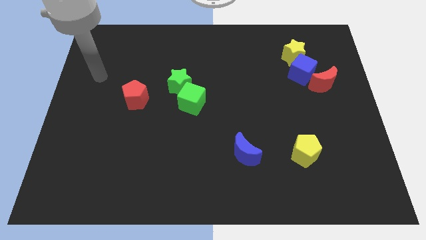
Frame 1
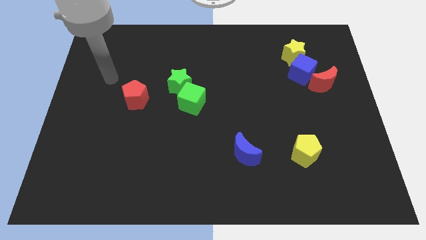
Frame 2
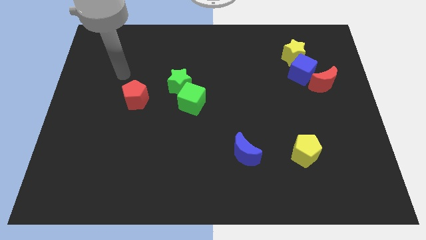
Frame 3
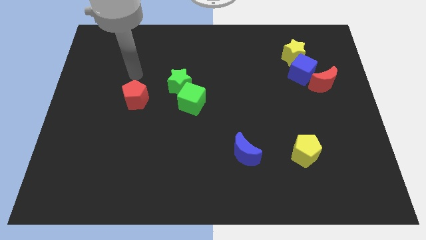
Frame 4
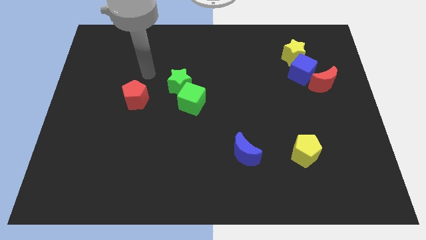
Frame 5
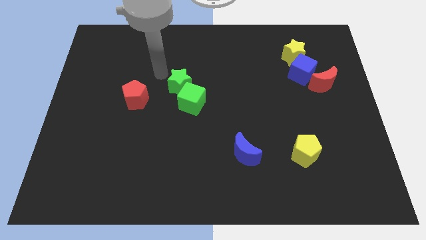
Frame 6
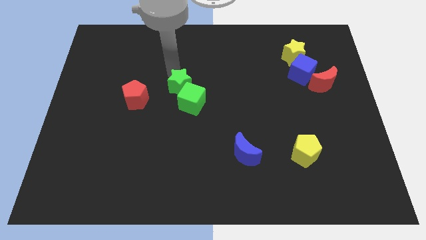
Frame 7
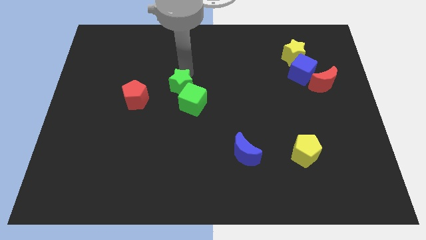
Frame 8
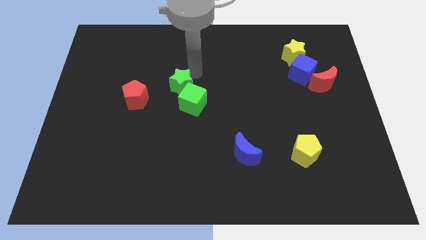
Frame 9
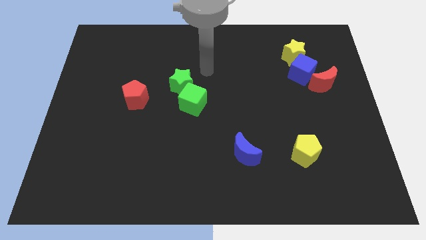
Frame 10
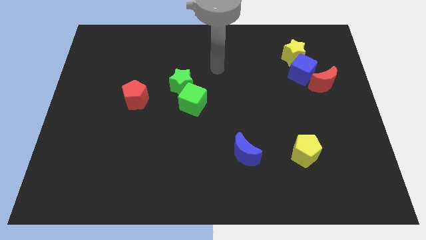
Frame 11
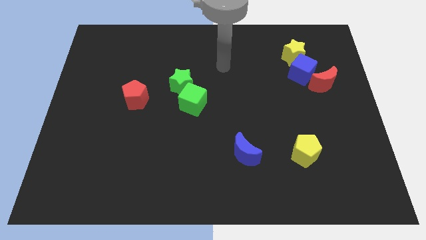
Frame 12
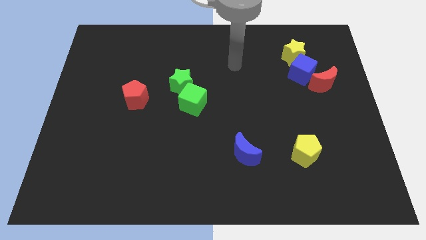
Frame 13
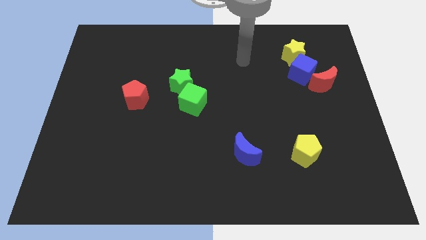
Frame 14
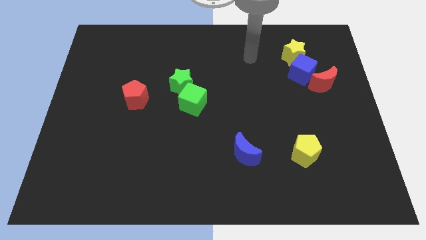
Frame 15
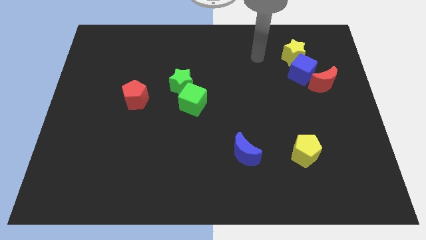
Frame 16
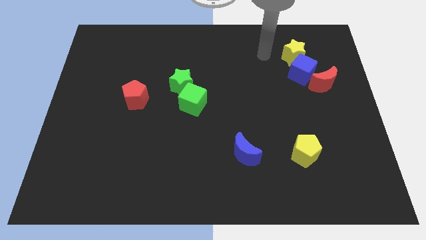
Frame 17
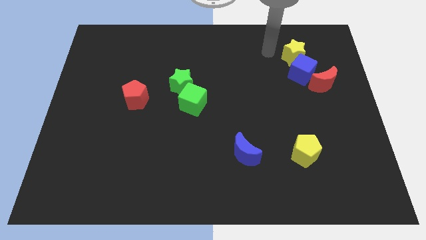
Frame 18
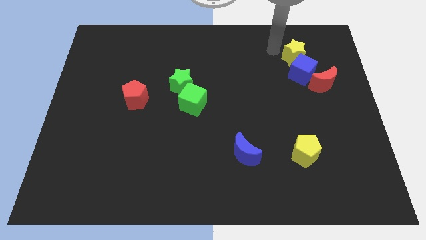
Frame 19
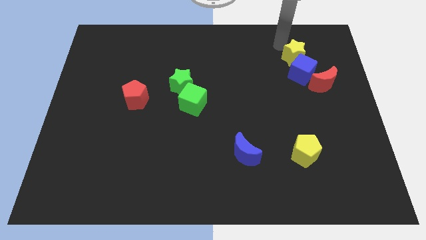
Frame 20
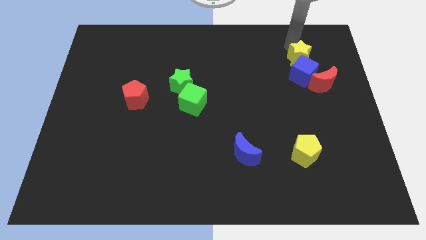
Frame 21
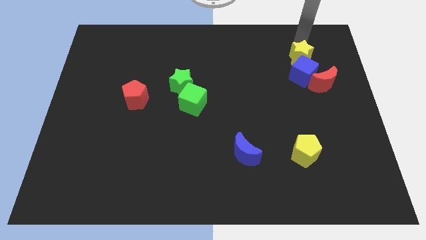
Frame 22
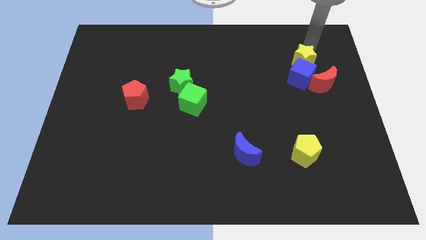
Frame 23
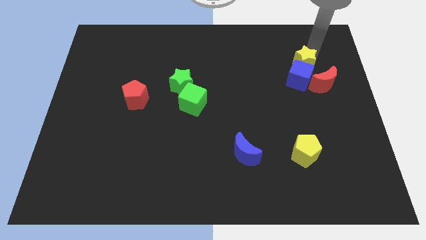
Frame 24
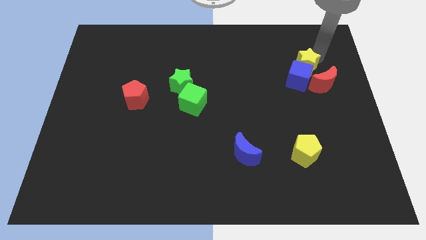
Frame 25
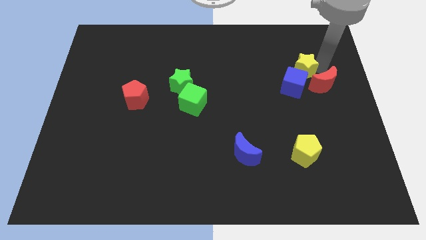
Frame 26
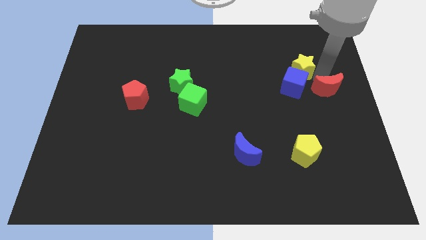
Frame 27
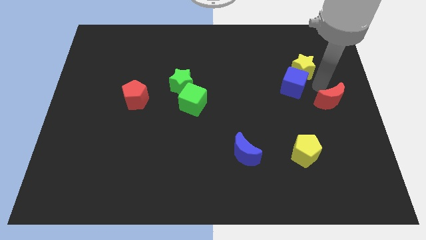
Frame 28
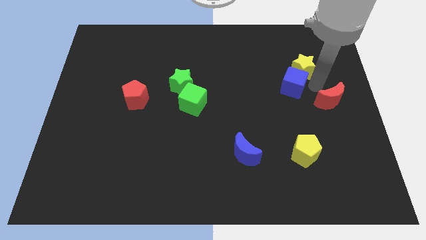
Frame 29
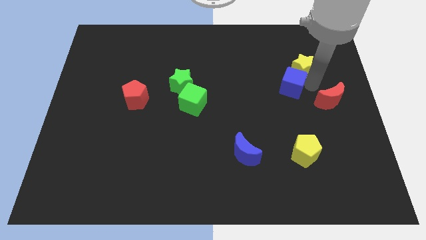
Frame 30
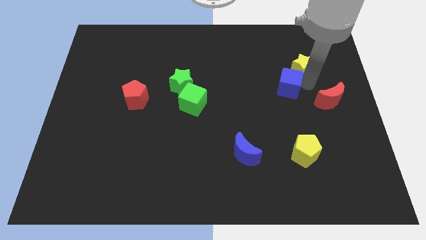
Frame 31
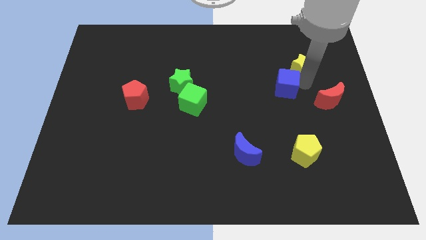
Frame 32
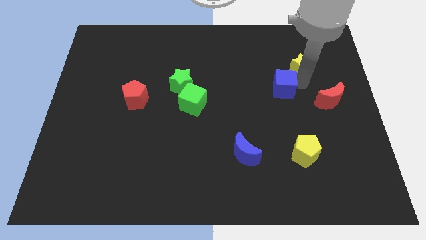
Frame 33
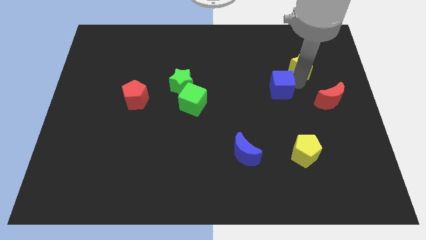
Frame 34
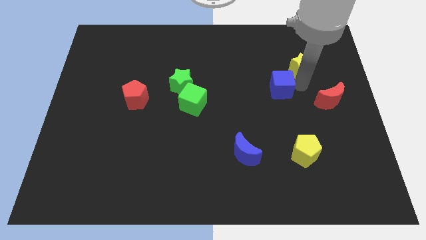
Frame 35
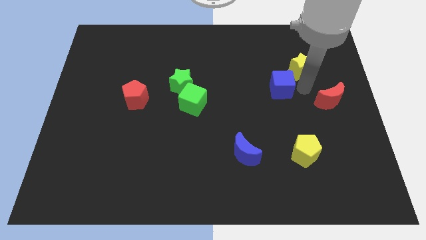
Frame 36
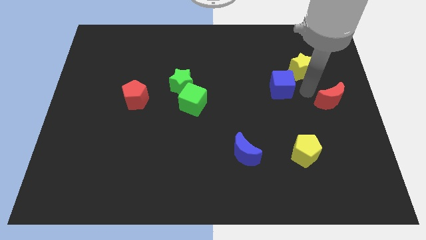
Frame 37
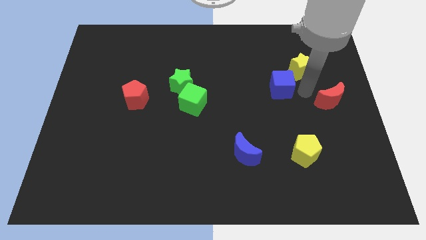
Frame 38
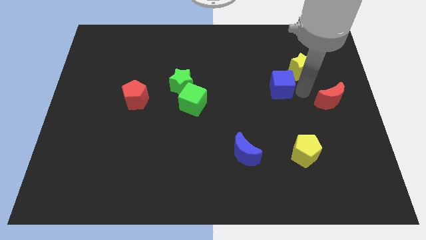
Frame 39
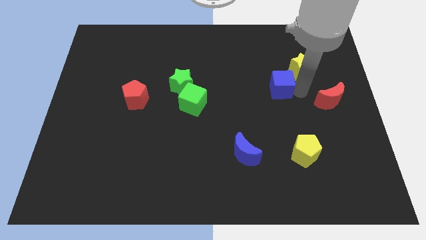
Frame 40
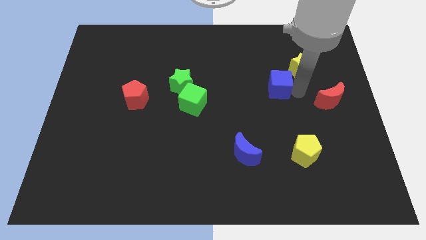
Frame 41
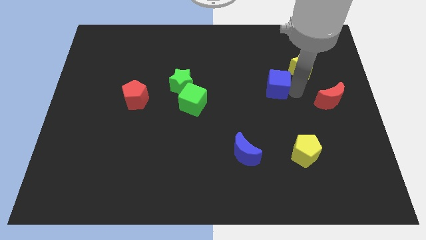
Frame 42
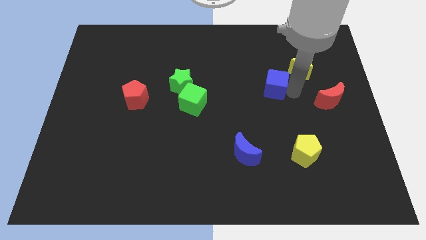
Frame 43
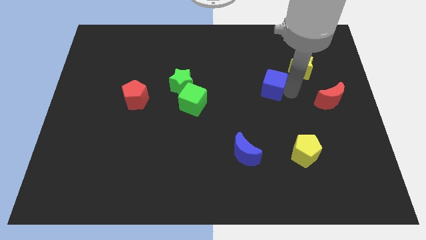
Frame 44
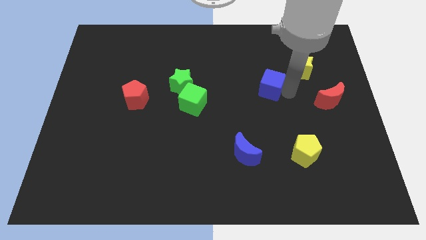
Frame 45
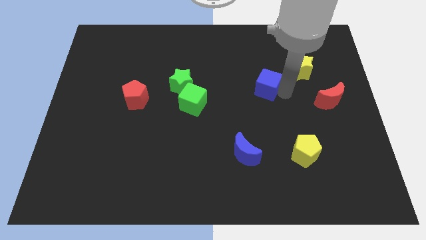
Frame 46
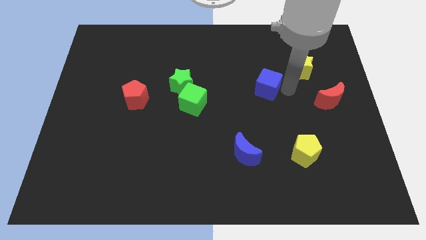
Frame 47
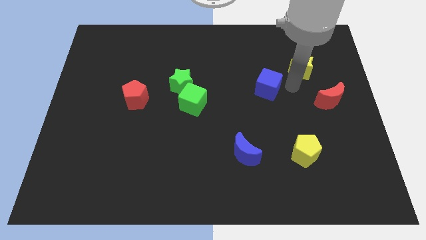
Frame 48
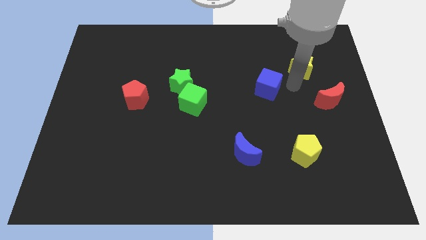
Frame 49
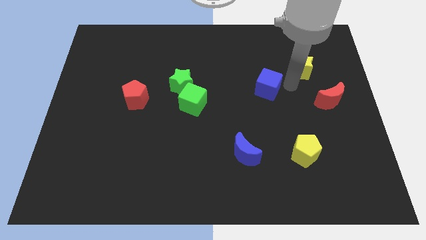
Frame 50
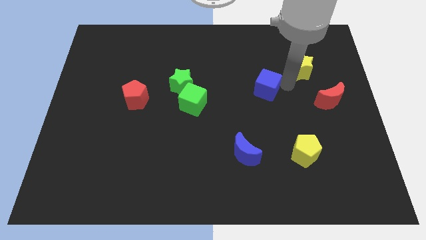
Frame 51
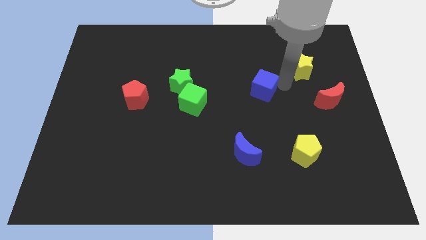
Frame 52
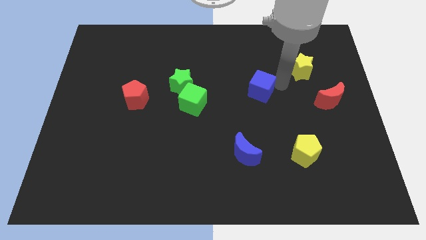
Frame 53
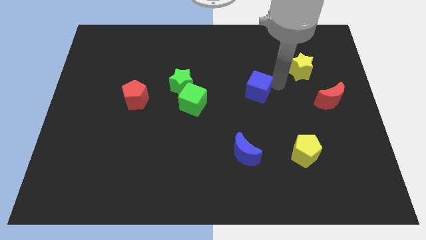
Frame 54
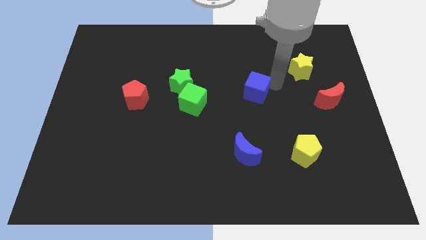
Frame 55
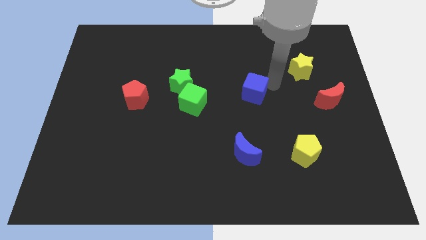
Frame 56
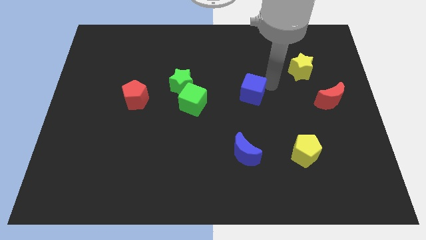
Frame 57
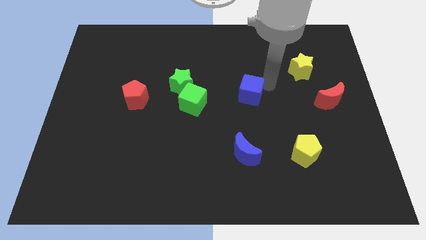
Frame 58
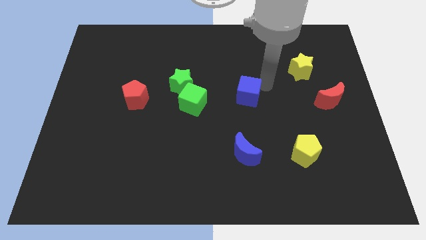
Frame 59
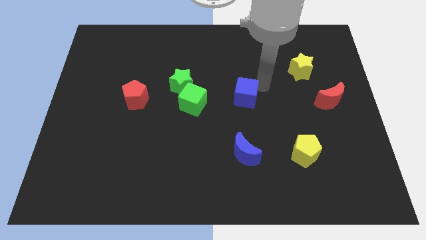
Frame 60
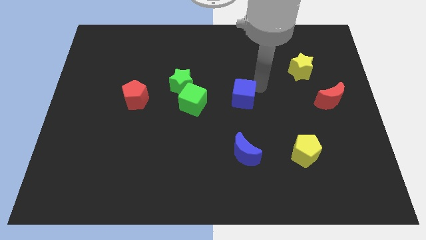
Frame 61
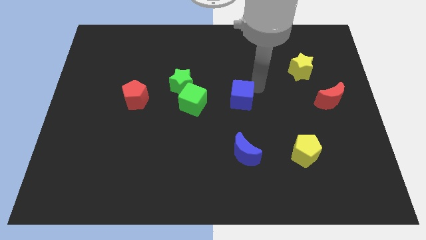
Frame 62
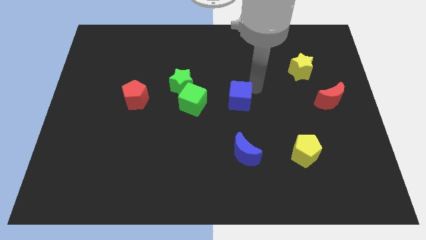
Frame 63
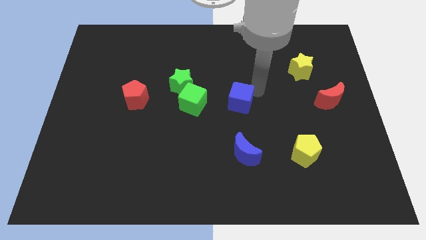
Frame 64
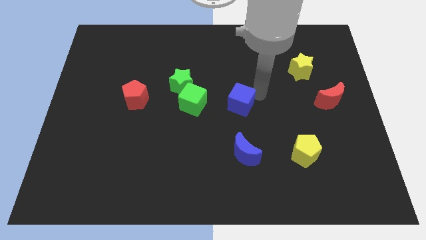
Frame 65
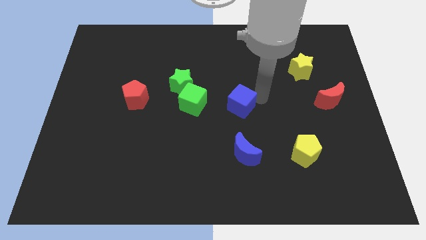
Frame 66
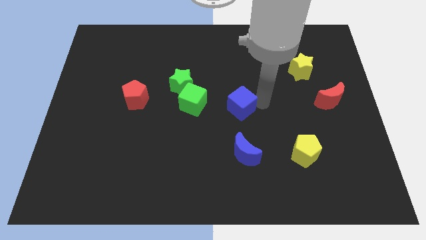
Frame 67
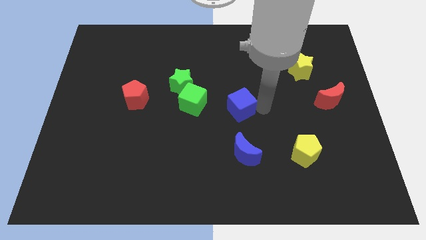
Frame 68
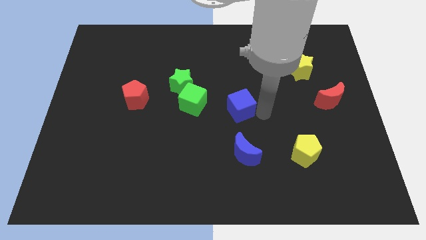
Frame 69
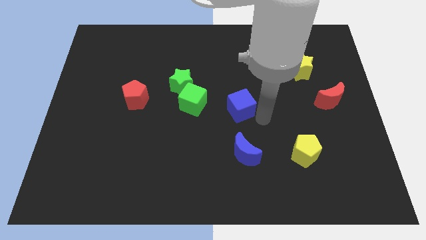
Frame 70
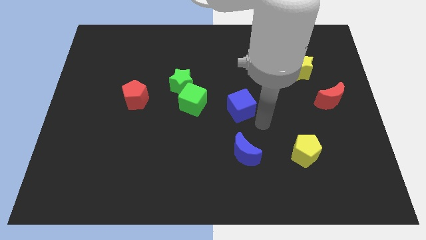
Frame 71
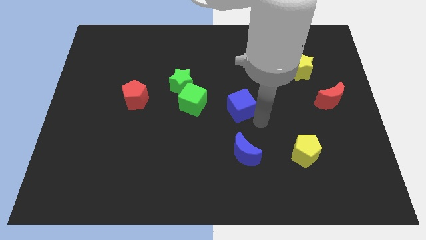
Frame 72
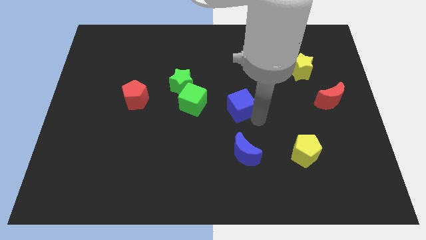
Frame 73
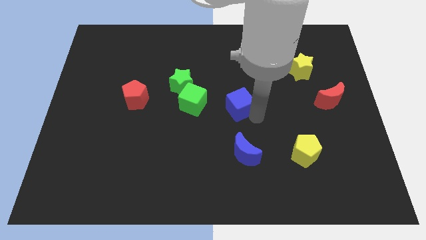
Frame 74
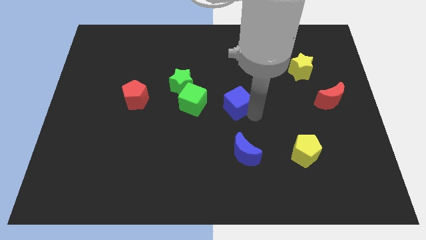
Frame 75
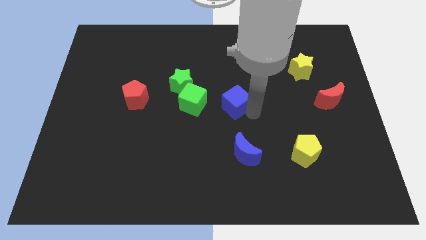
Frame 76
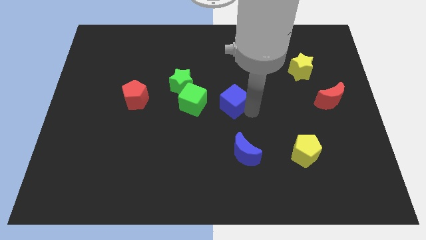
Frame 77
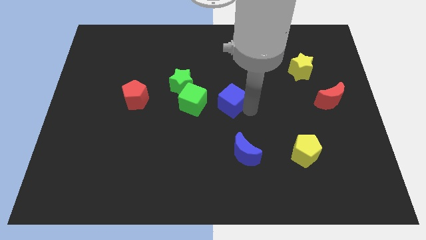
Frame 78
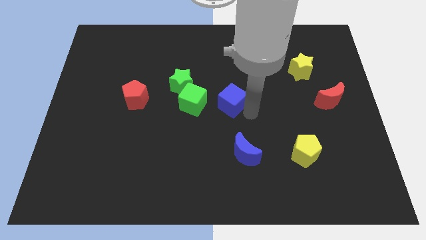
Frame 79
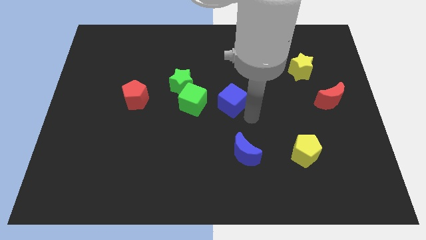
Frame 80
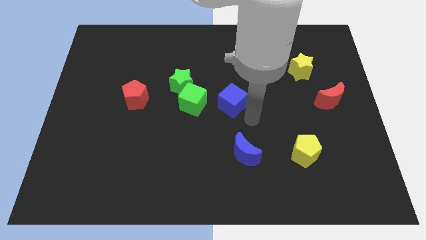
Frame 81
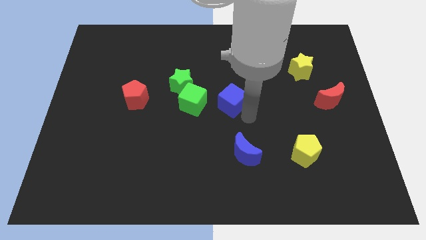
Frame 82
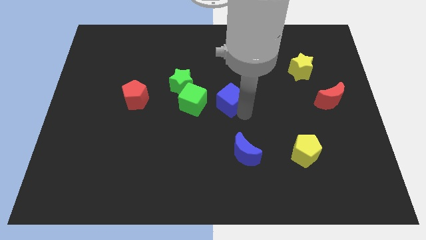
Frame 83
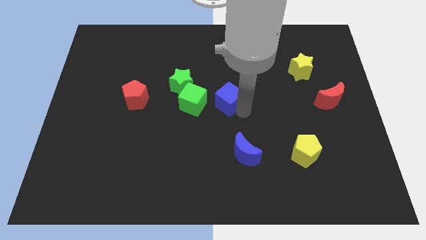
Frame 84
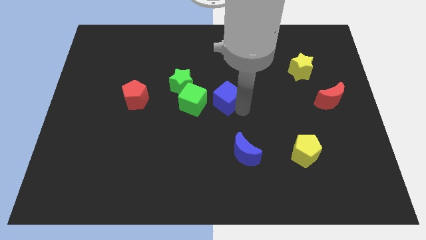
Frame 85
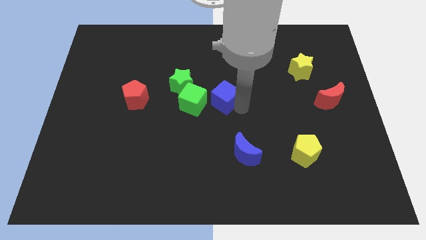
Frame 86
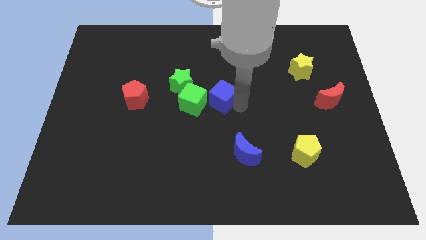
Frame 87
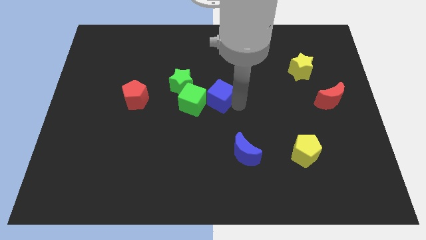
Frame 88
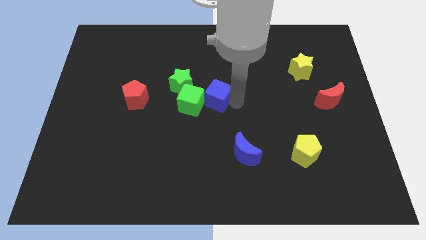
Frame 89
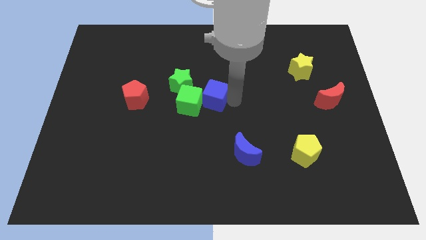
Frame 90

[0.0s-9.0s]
push the blue cube next to the green cube
